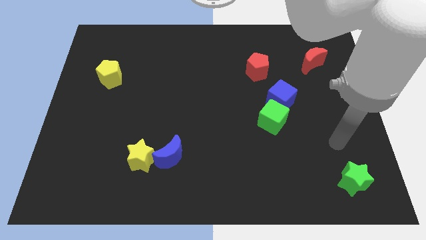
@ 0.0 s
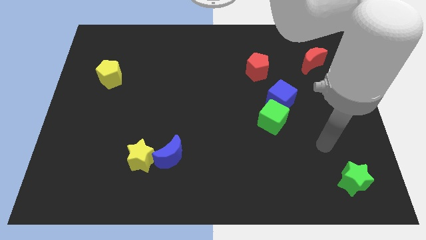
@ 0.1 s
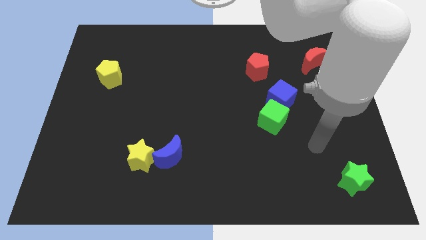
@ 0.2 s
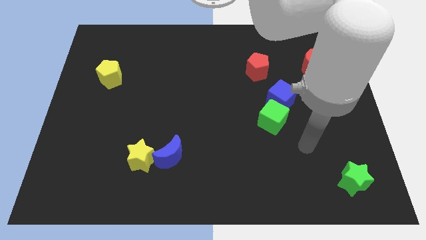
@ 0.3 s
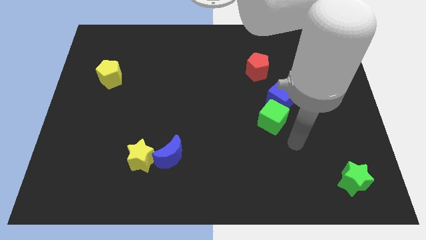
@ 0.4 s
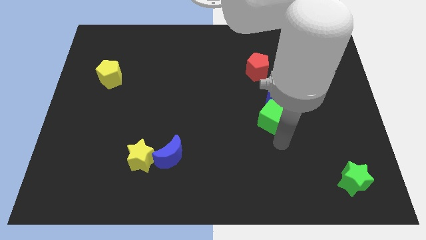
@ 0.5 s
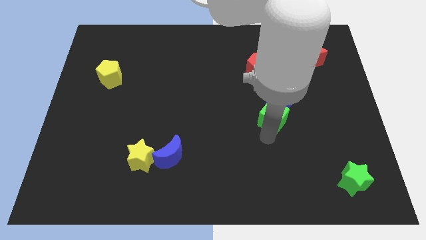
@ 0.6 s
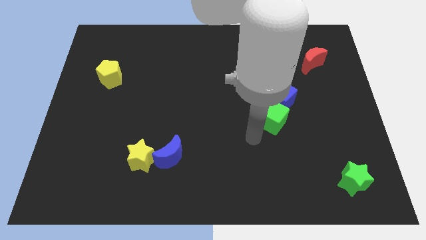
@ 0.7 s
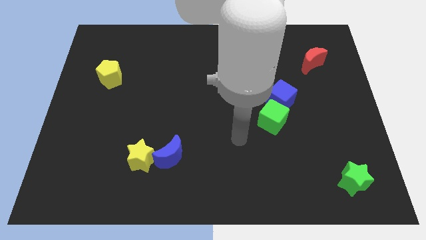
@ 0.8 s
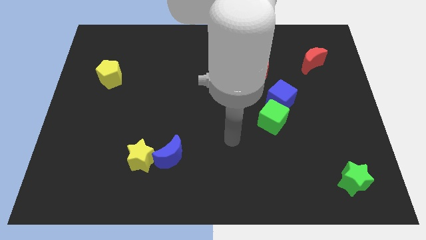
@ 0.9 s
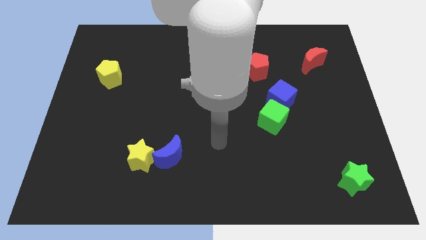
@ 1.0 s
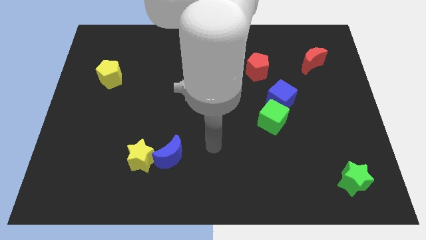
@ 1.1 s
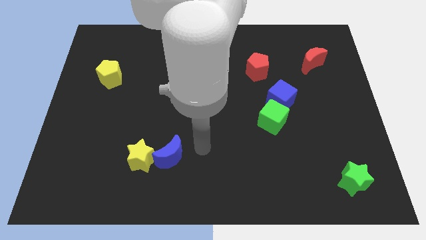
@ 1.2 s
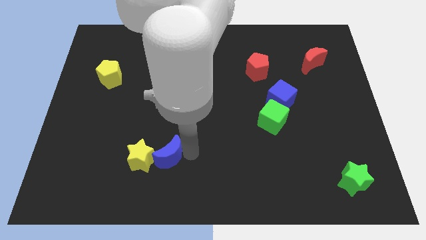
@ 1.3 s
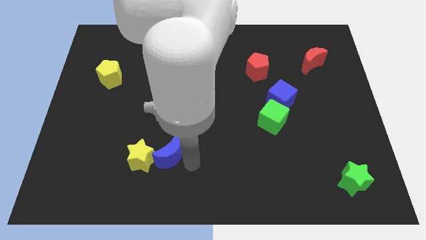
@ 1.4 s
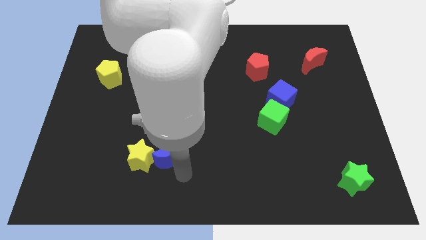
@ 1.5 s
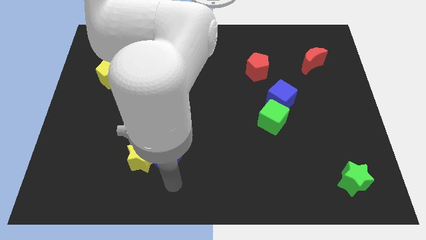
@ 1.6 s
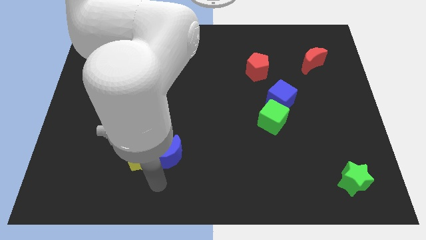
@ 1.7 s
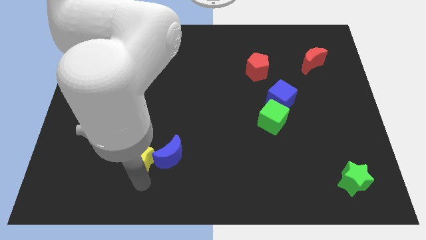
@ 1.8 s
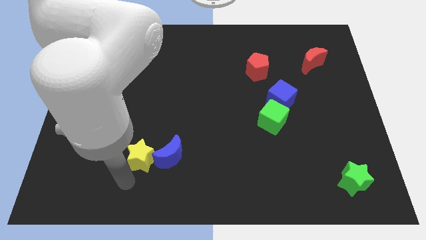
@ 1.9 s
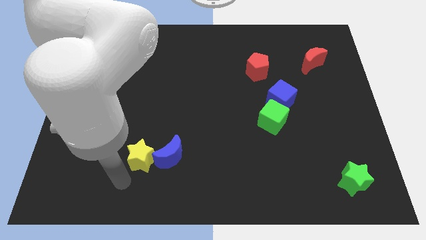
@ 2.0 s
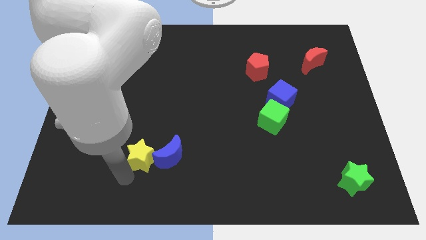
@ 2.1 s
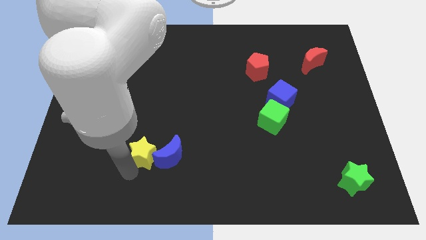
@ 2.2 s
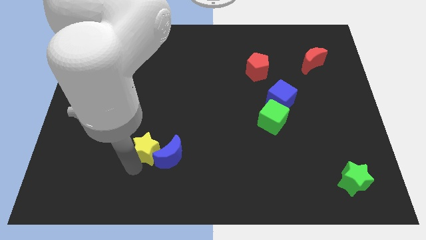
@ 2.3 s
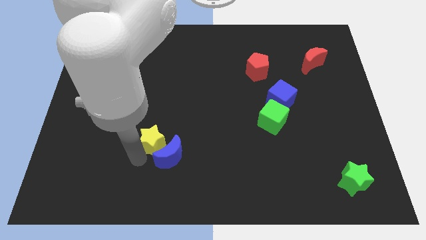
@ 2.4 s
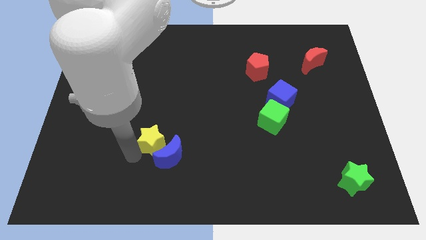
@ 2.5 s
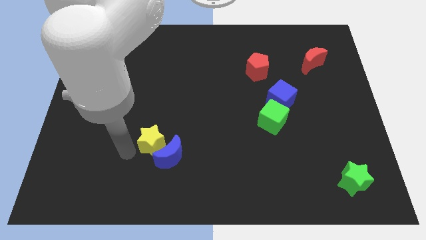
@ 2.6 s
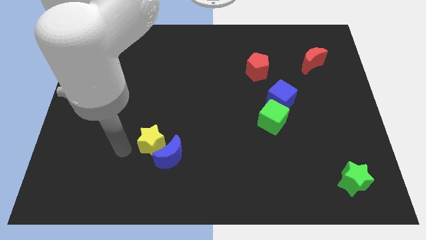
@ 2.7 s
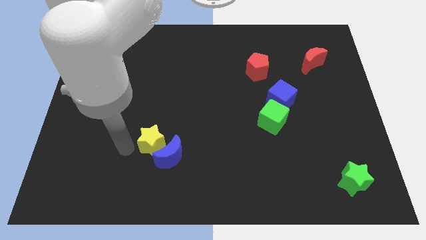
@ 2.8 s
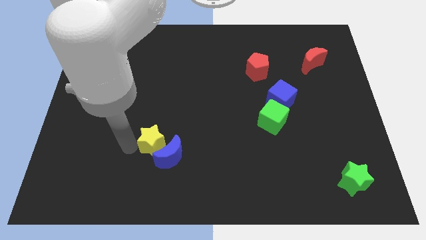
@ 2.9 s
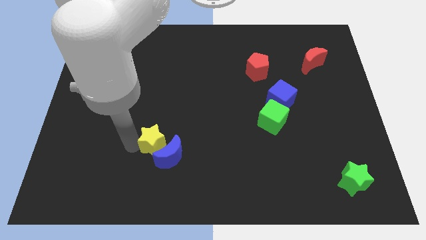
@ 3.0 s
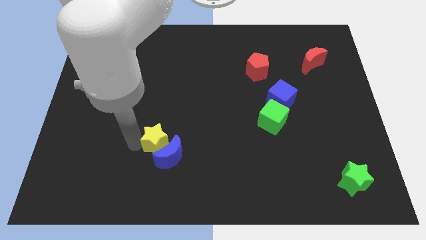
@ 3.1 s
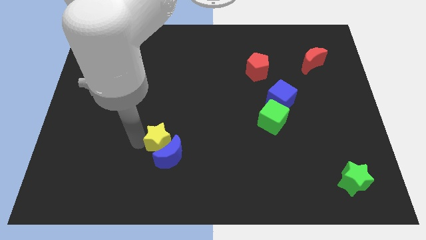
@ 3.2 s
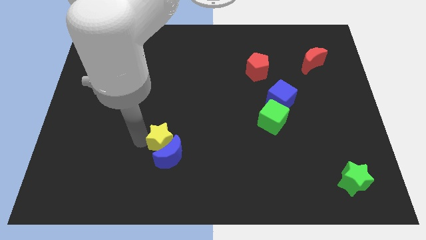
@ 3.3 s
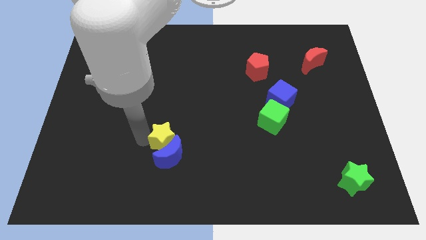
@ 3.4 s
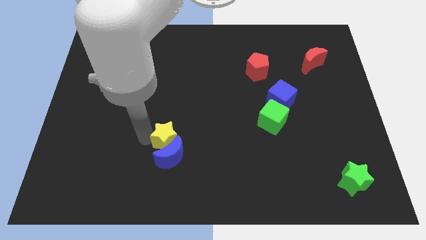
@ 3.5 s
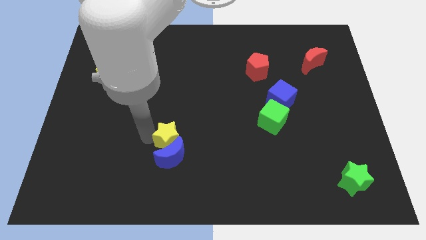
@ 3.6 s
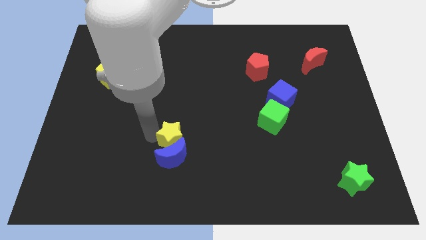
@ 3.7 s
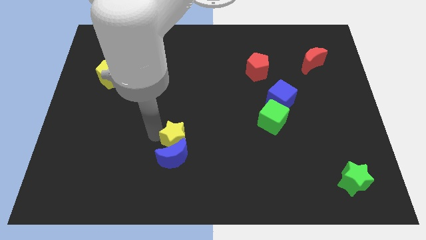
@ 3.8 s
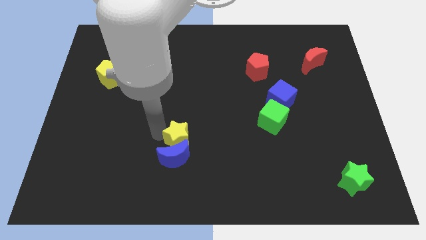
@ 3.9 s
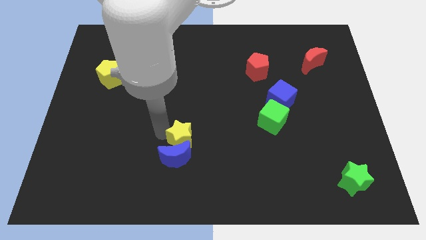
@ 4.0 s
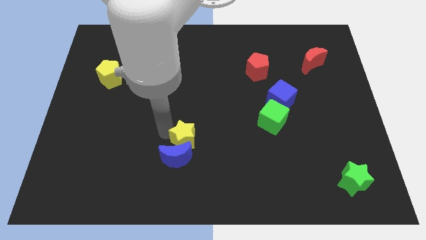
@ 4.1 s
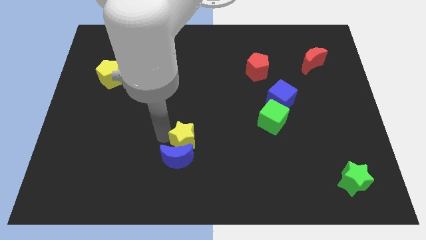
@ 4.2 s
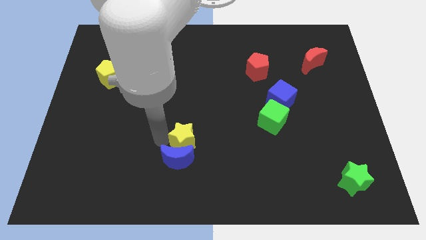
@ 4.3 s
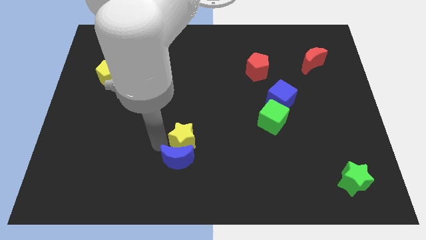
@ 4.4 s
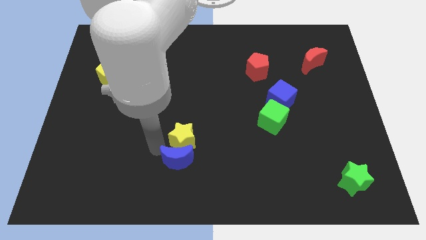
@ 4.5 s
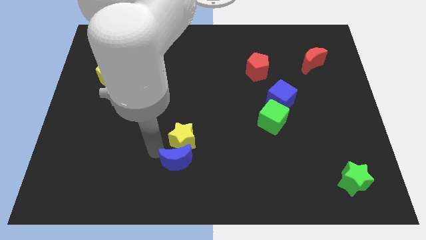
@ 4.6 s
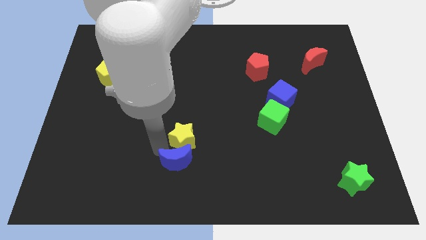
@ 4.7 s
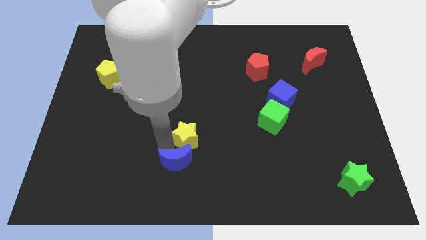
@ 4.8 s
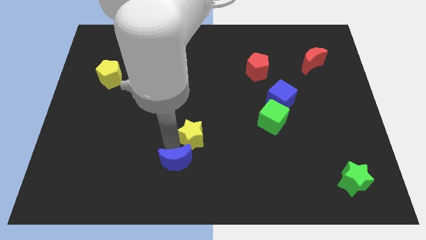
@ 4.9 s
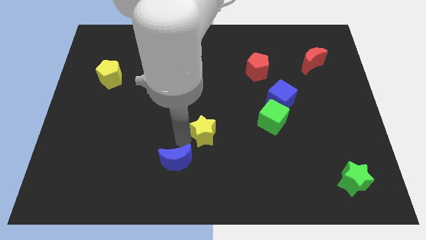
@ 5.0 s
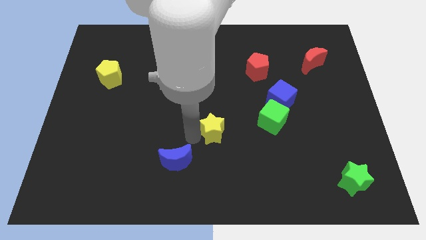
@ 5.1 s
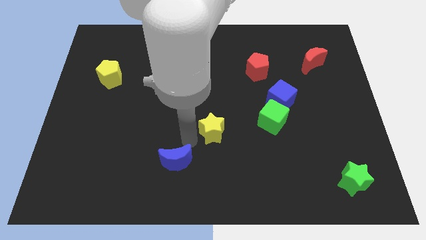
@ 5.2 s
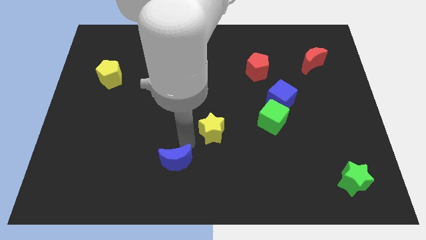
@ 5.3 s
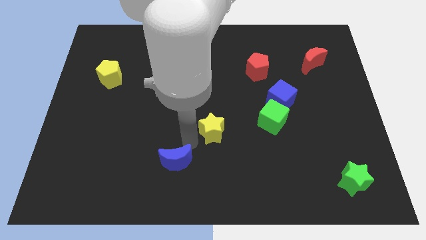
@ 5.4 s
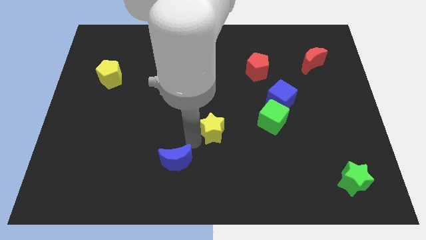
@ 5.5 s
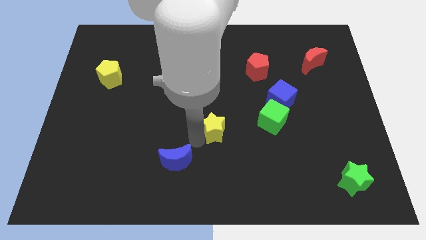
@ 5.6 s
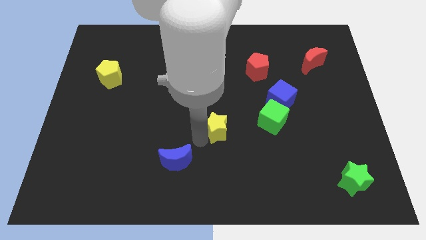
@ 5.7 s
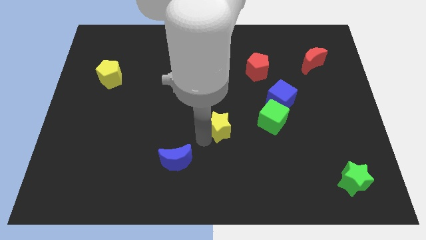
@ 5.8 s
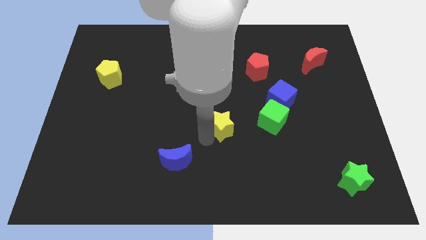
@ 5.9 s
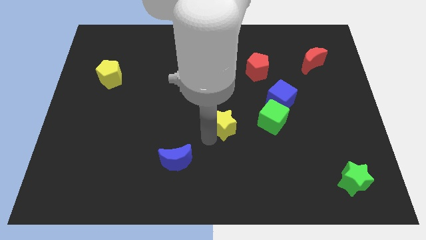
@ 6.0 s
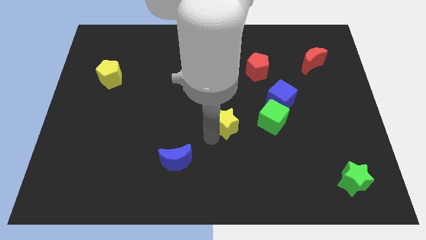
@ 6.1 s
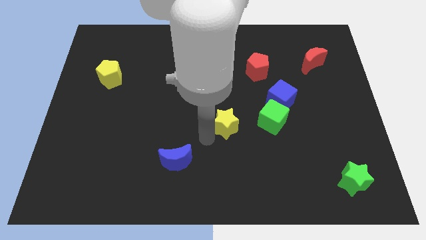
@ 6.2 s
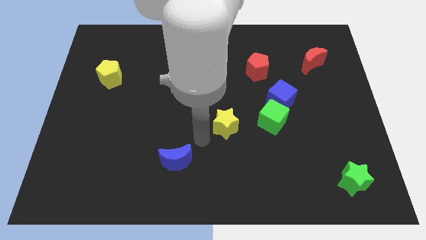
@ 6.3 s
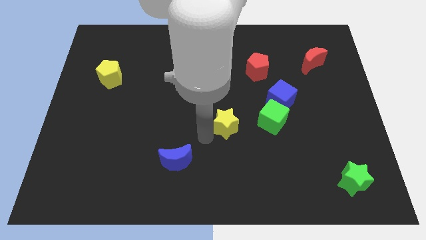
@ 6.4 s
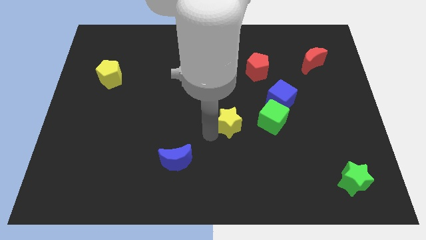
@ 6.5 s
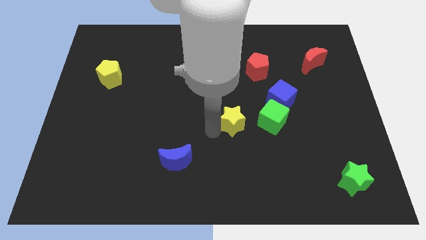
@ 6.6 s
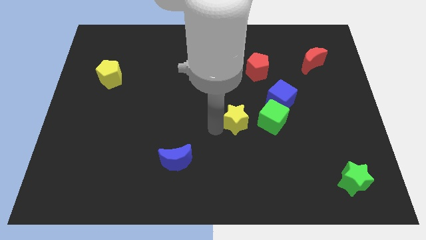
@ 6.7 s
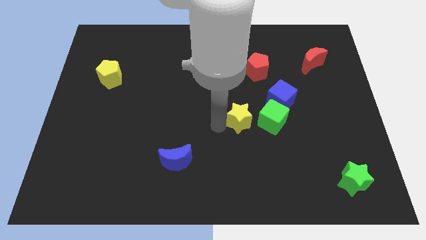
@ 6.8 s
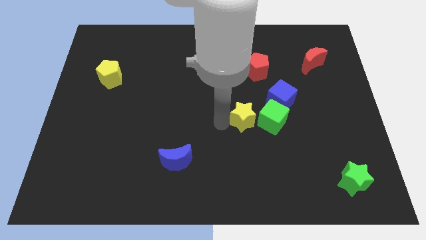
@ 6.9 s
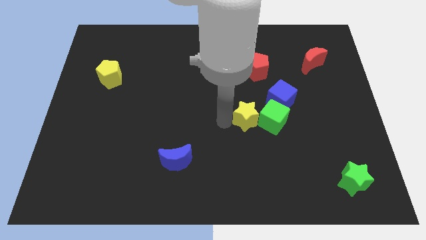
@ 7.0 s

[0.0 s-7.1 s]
put the yellow star close to the green cube

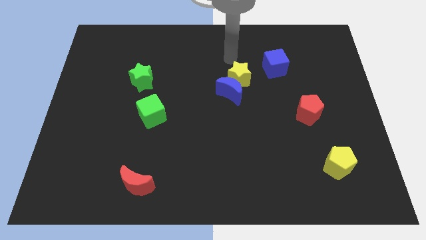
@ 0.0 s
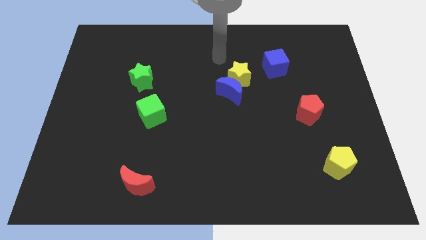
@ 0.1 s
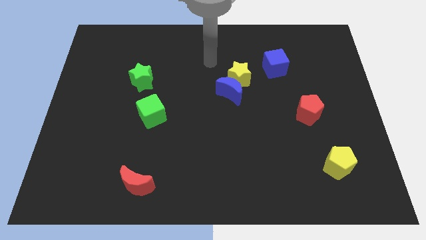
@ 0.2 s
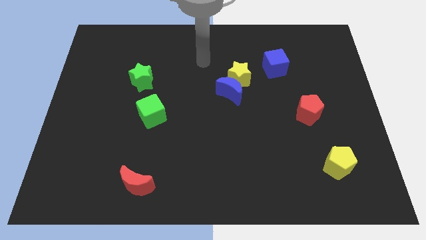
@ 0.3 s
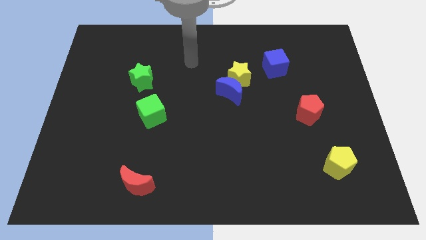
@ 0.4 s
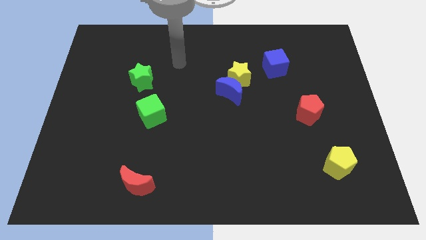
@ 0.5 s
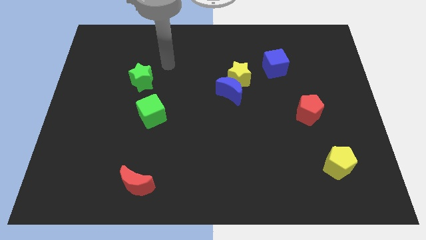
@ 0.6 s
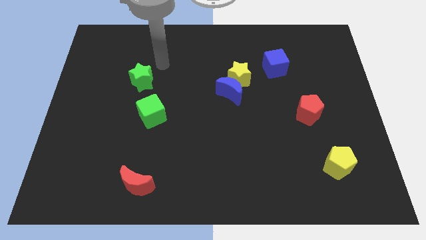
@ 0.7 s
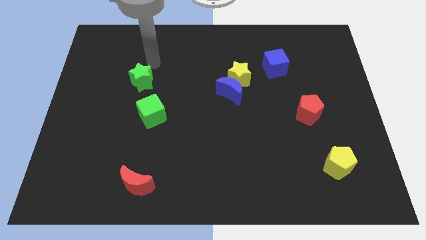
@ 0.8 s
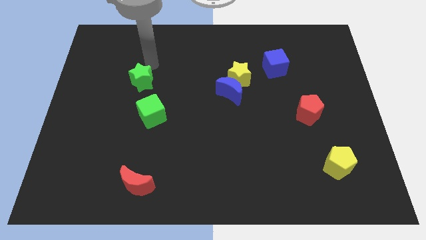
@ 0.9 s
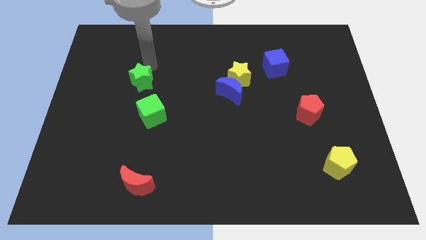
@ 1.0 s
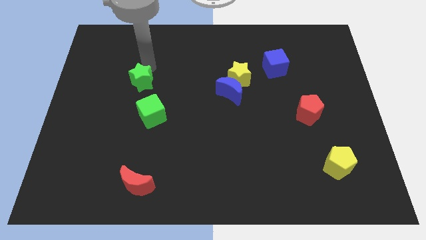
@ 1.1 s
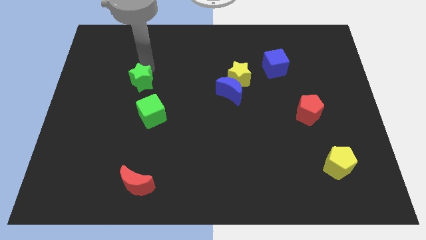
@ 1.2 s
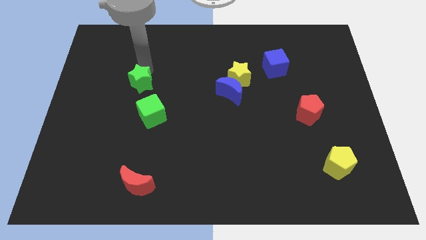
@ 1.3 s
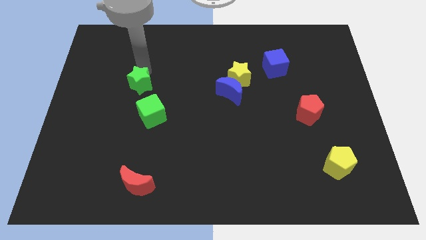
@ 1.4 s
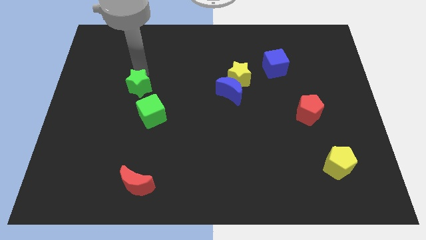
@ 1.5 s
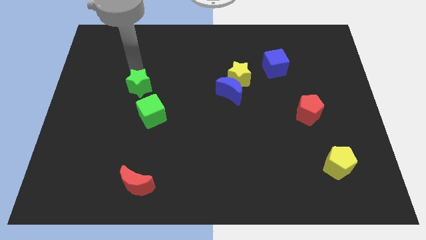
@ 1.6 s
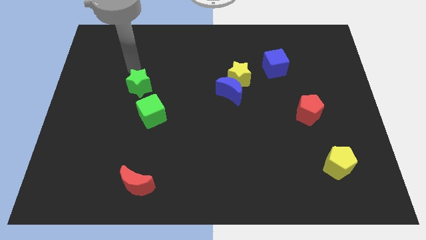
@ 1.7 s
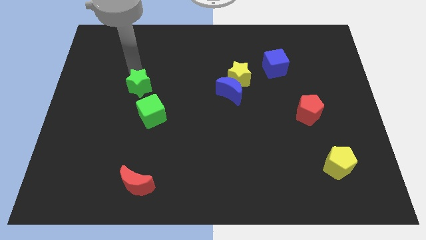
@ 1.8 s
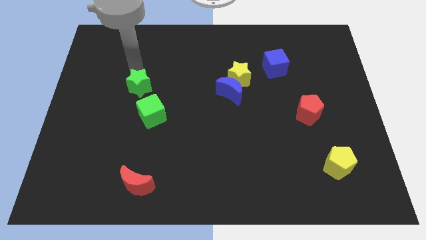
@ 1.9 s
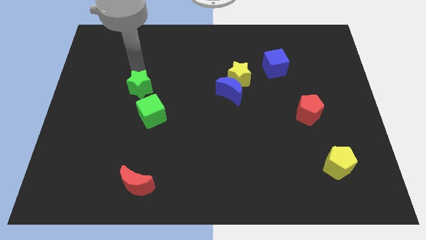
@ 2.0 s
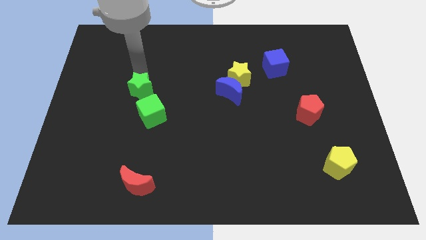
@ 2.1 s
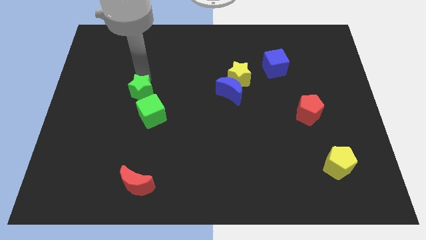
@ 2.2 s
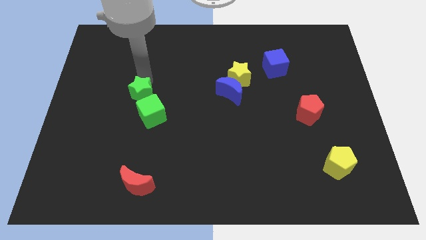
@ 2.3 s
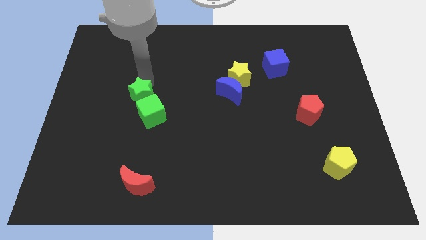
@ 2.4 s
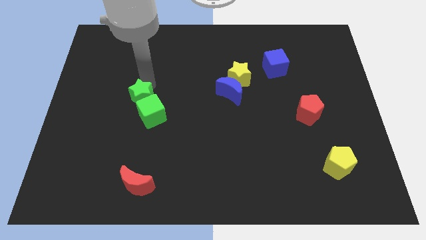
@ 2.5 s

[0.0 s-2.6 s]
slide the green star next to the green cube
